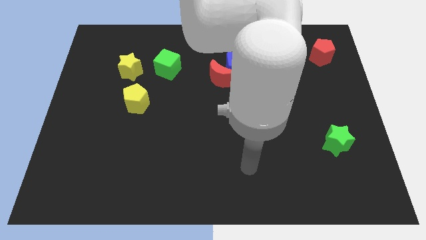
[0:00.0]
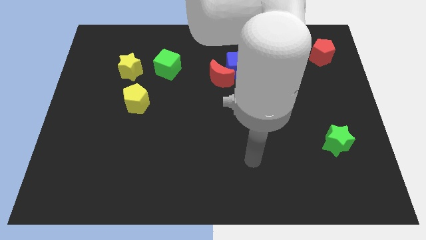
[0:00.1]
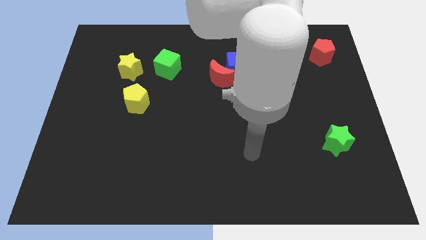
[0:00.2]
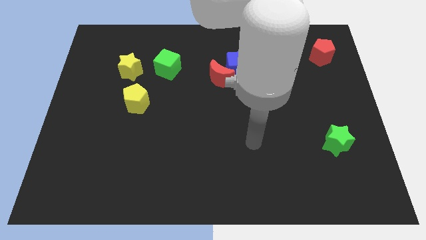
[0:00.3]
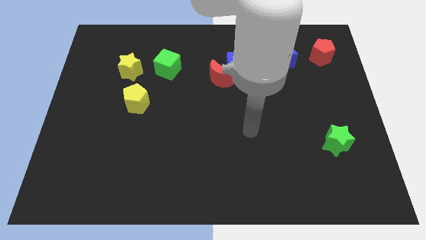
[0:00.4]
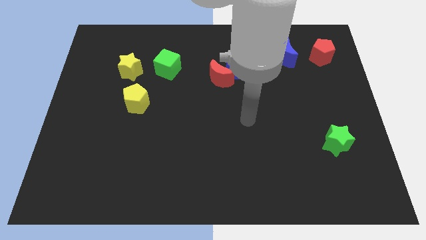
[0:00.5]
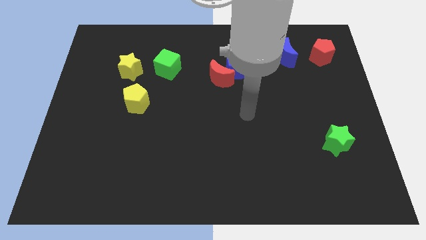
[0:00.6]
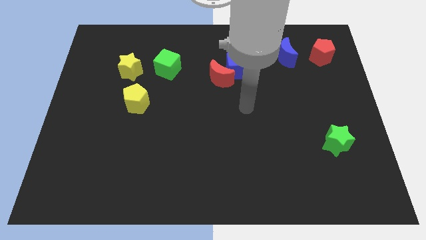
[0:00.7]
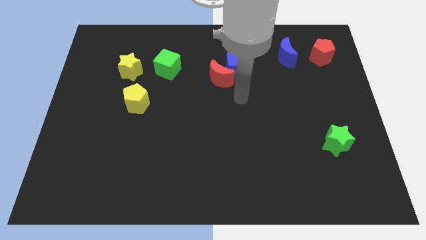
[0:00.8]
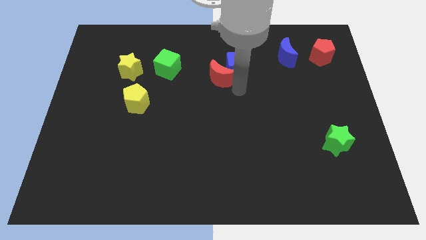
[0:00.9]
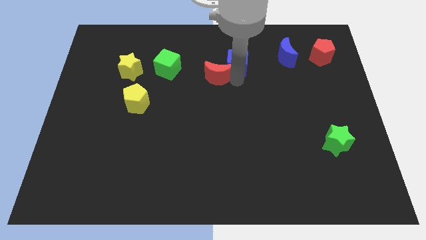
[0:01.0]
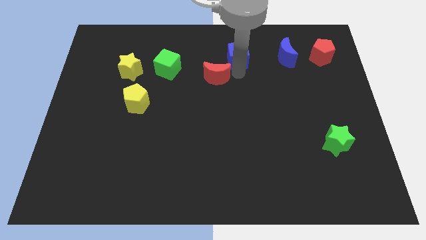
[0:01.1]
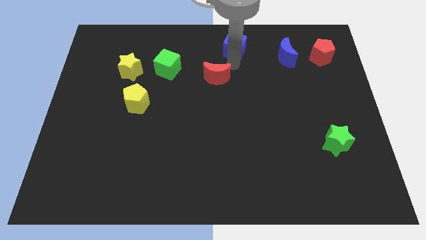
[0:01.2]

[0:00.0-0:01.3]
pull the red moon apart from the blue cube

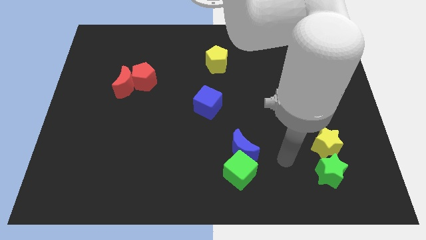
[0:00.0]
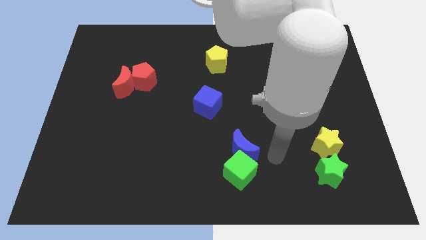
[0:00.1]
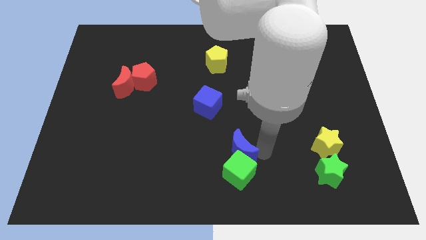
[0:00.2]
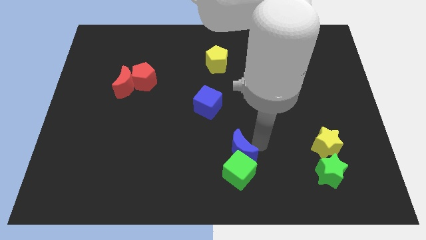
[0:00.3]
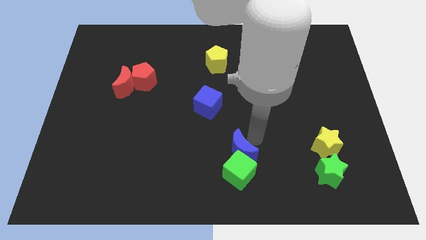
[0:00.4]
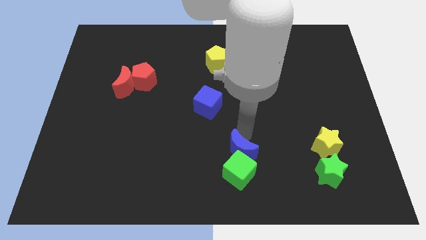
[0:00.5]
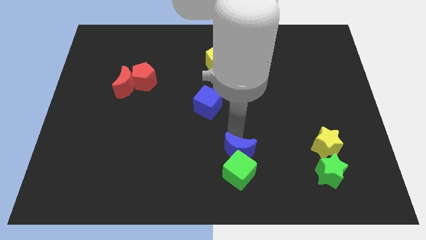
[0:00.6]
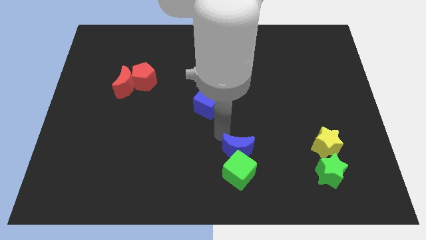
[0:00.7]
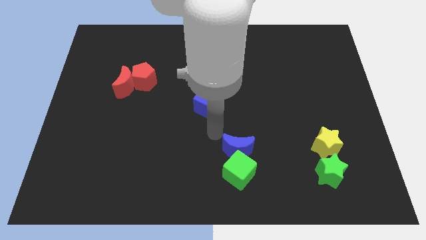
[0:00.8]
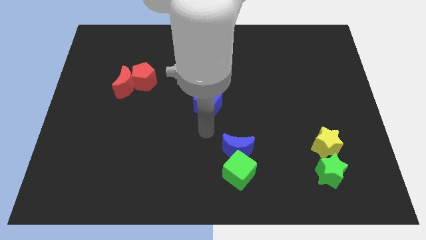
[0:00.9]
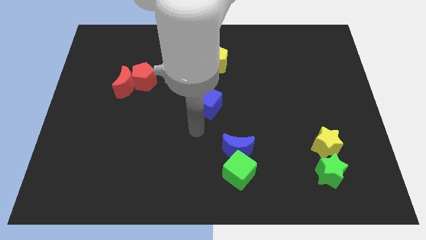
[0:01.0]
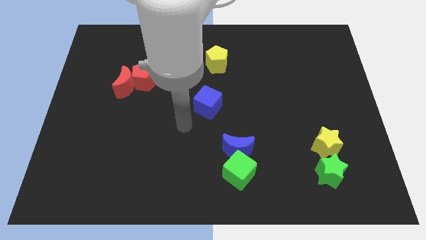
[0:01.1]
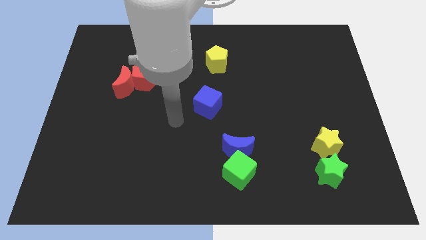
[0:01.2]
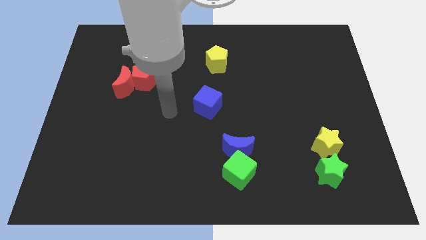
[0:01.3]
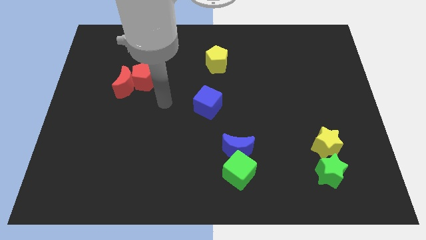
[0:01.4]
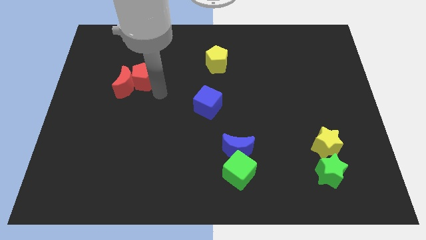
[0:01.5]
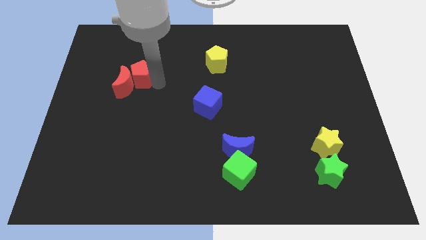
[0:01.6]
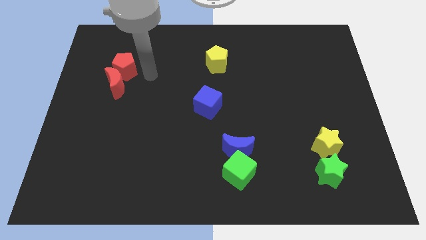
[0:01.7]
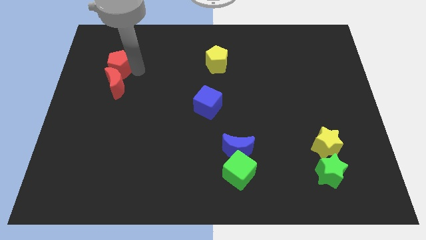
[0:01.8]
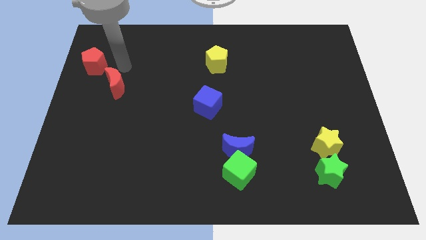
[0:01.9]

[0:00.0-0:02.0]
pull the red moon apart from the red pentagon

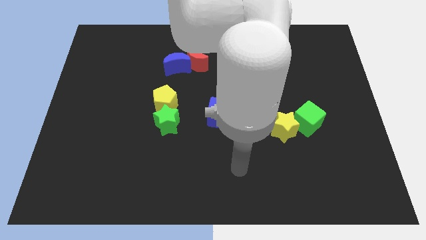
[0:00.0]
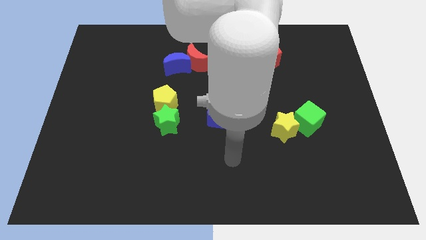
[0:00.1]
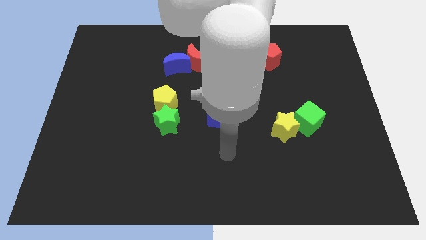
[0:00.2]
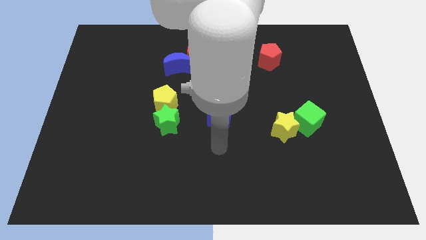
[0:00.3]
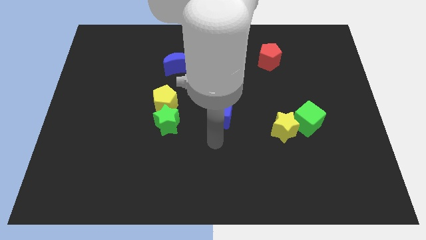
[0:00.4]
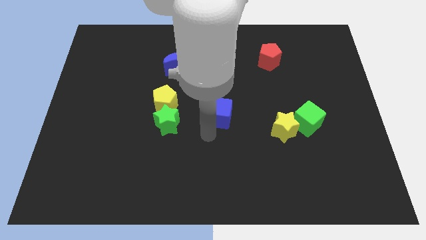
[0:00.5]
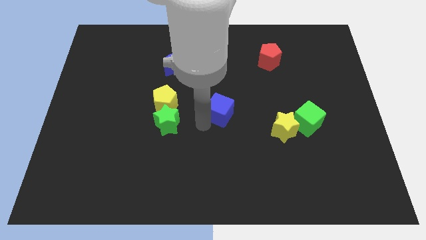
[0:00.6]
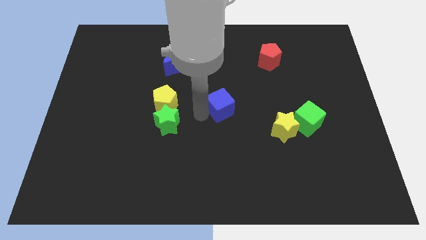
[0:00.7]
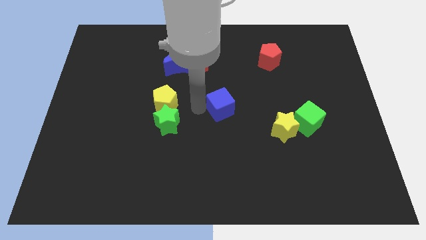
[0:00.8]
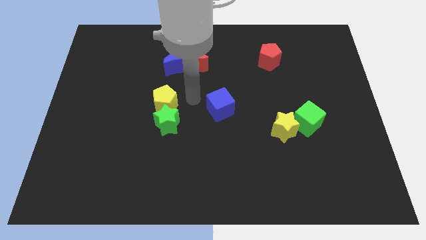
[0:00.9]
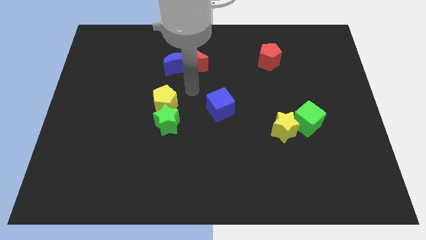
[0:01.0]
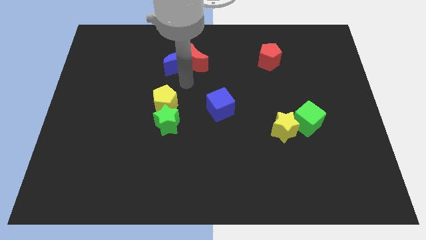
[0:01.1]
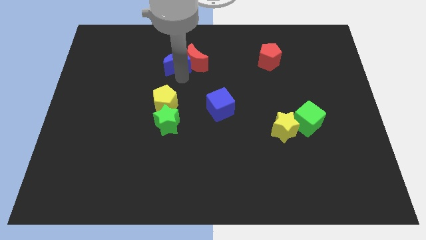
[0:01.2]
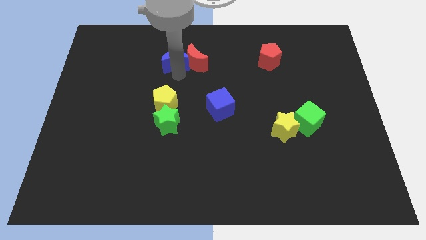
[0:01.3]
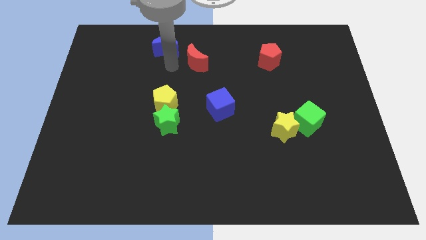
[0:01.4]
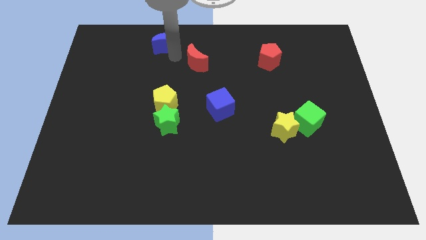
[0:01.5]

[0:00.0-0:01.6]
separate the red moon from the blue moon

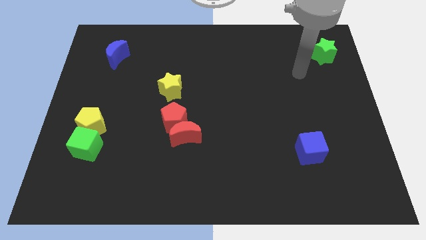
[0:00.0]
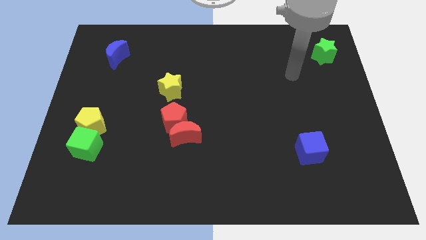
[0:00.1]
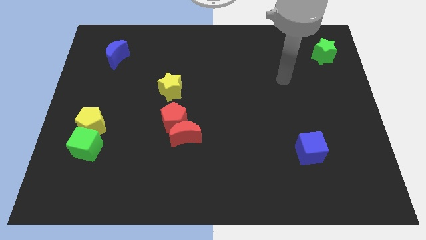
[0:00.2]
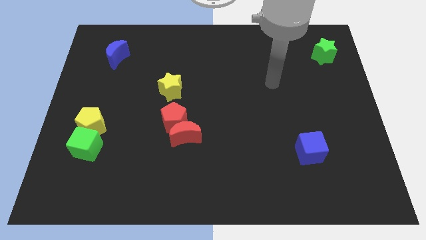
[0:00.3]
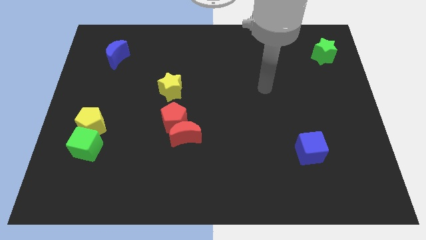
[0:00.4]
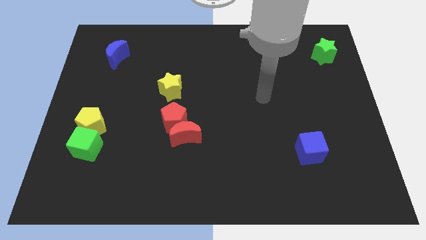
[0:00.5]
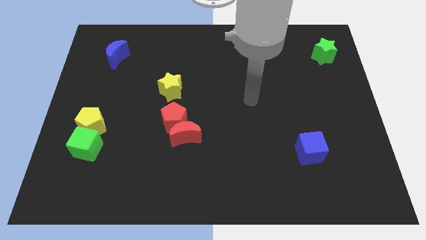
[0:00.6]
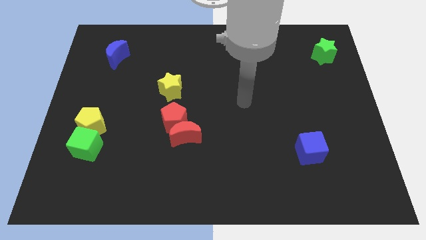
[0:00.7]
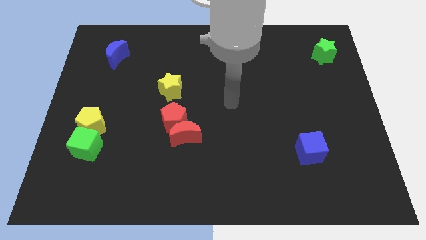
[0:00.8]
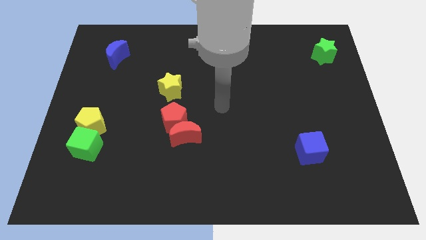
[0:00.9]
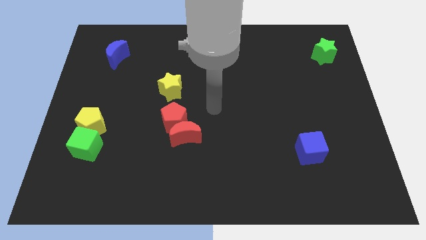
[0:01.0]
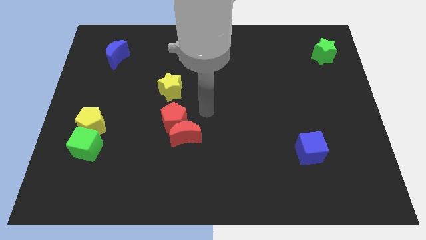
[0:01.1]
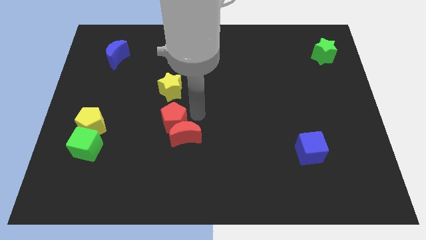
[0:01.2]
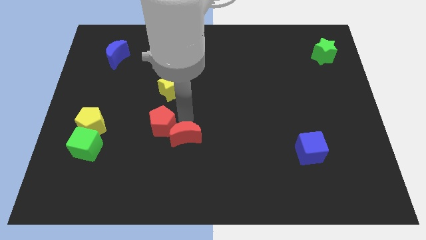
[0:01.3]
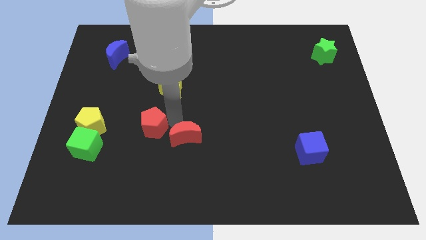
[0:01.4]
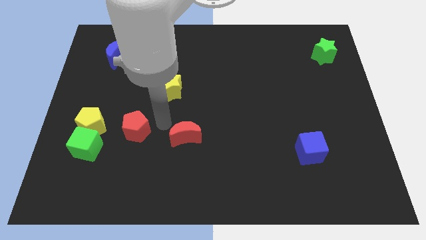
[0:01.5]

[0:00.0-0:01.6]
move the red moon away from the red pentagon

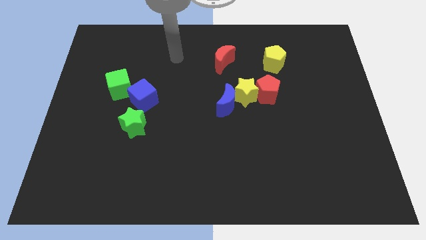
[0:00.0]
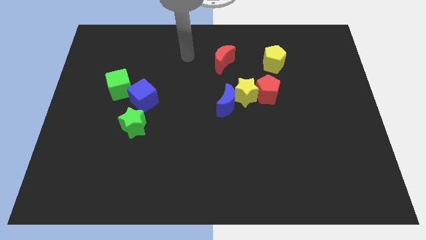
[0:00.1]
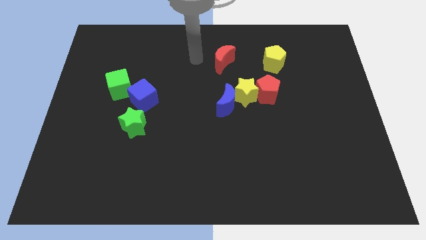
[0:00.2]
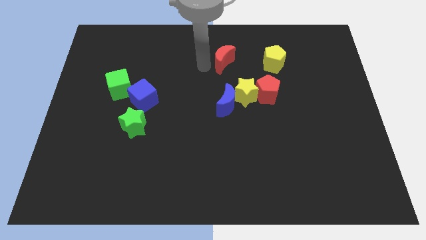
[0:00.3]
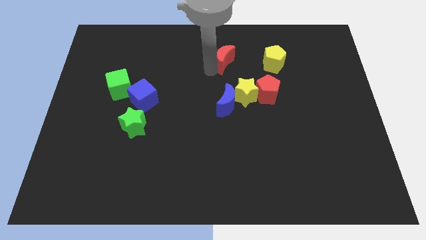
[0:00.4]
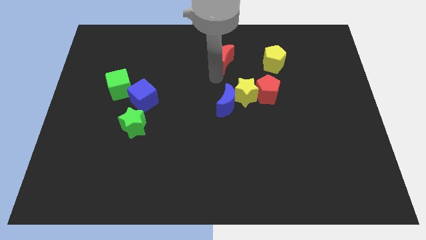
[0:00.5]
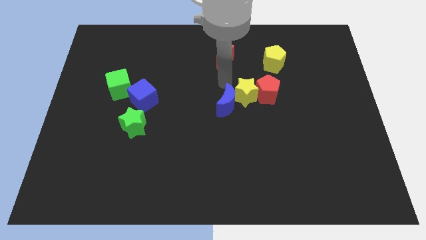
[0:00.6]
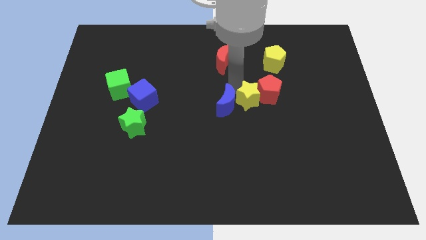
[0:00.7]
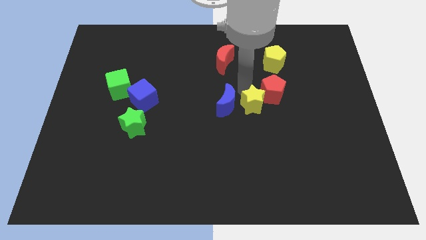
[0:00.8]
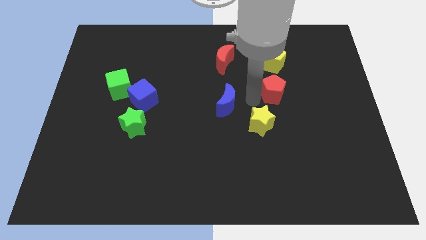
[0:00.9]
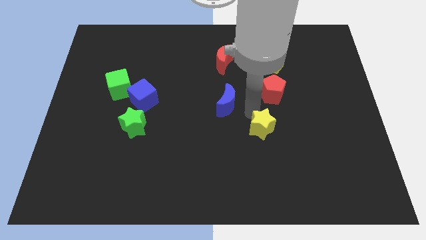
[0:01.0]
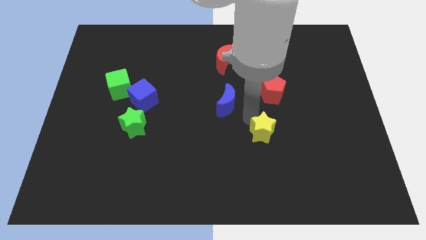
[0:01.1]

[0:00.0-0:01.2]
move the blue moon away from the yellow star

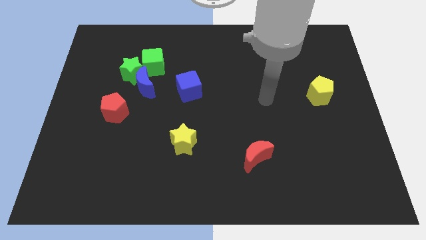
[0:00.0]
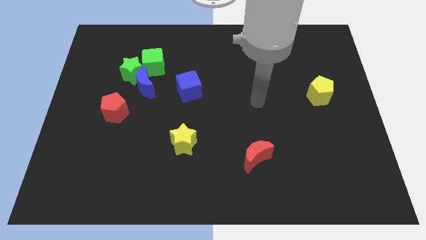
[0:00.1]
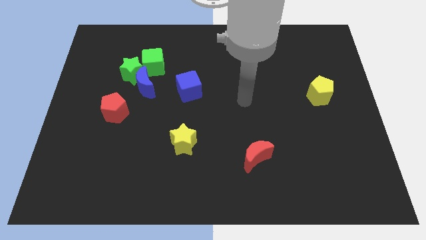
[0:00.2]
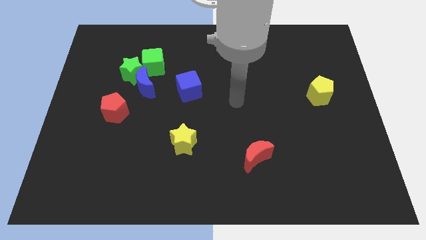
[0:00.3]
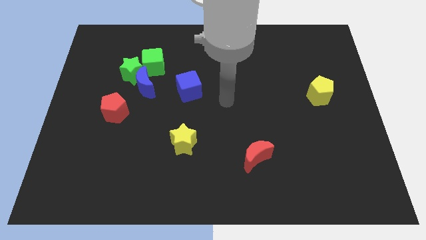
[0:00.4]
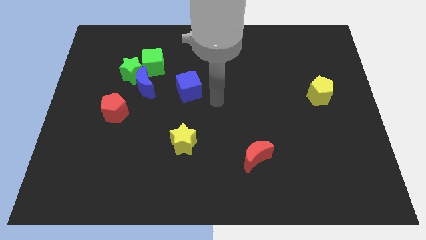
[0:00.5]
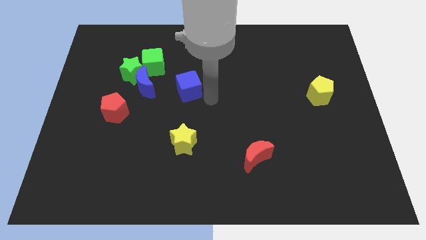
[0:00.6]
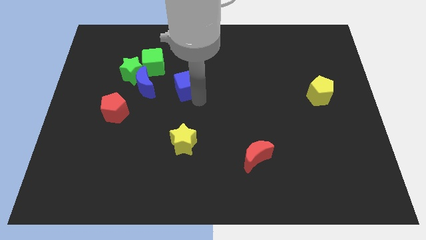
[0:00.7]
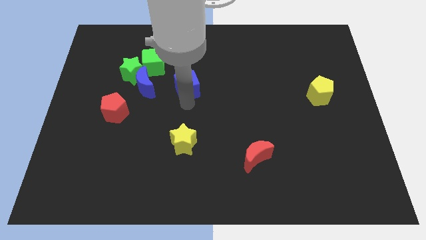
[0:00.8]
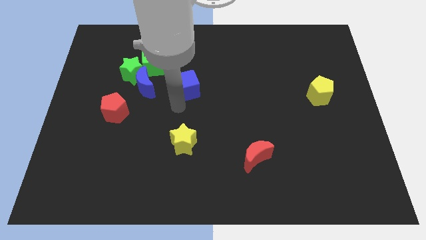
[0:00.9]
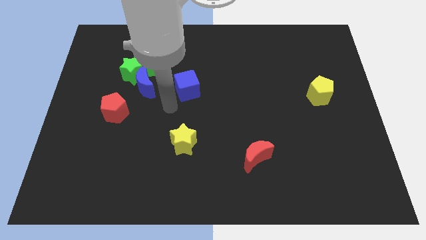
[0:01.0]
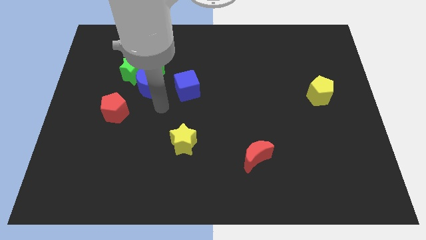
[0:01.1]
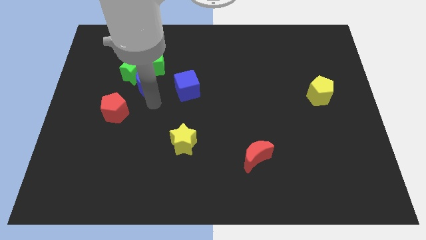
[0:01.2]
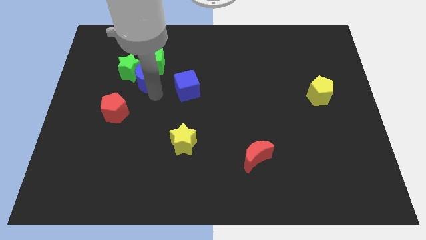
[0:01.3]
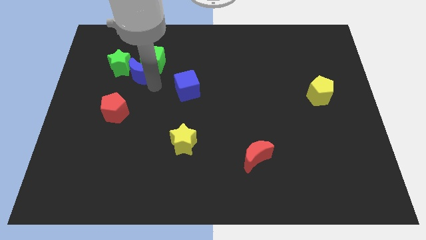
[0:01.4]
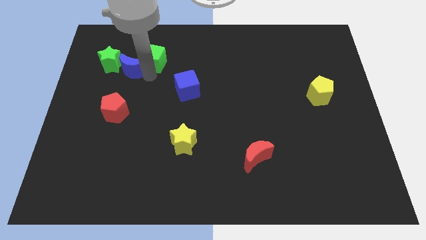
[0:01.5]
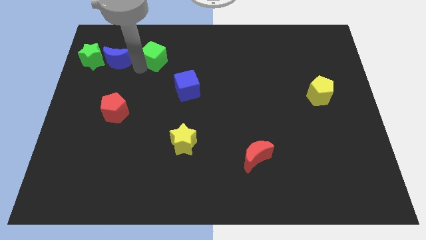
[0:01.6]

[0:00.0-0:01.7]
separate the green star from the blue moon and green cube
